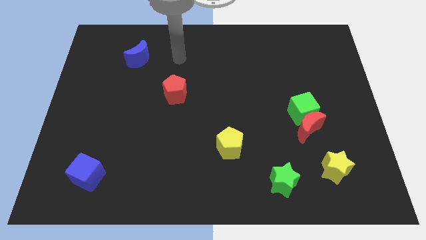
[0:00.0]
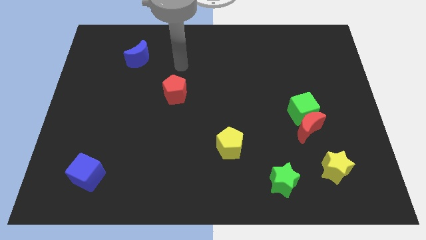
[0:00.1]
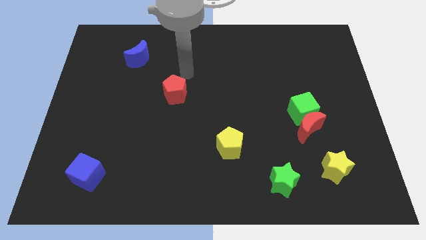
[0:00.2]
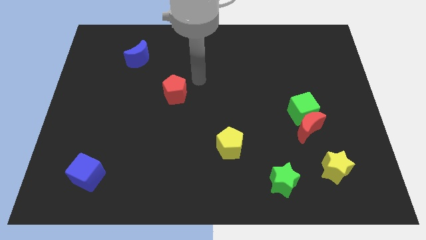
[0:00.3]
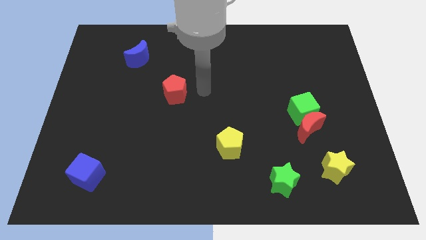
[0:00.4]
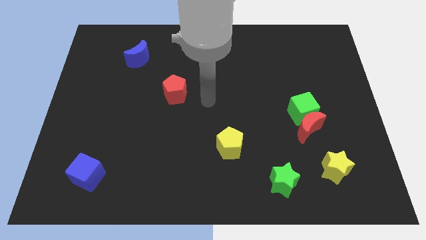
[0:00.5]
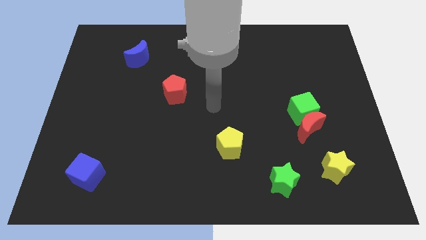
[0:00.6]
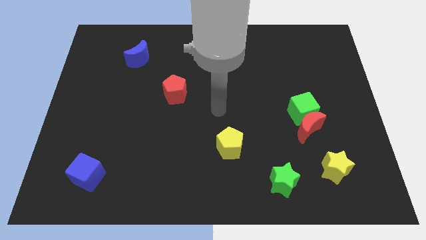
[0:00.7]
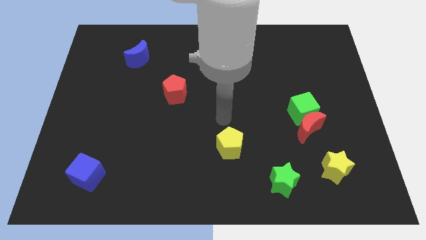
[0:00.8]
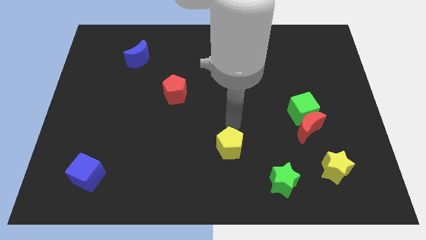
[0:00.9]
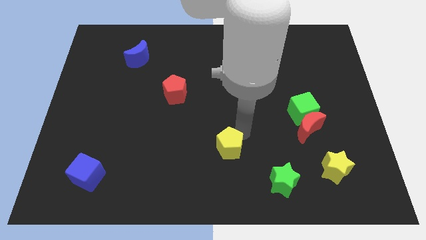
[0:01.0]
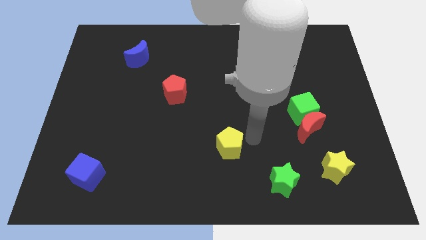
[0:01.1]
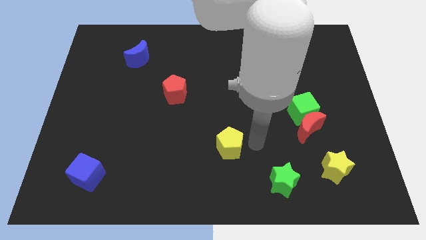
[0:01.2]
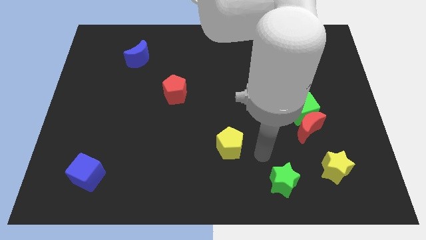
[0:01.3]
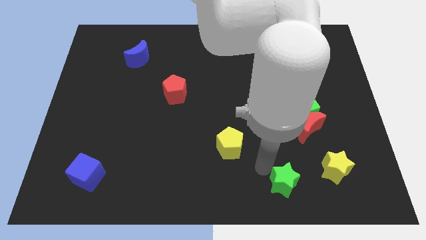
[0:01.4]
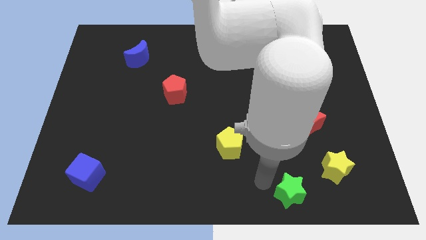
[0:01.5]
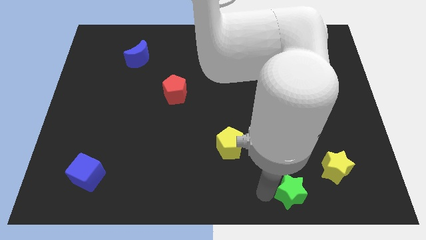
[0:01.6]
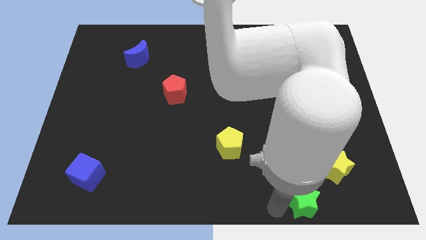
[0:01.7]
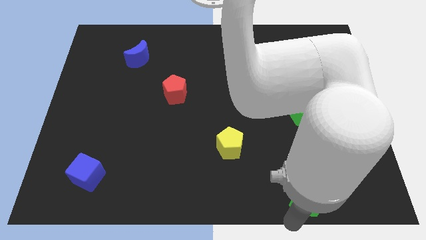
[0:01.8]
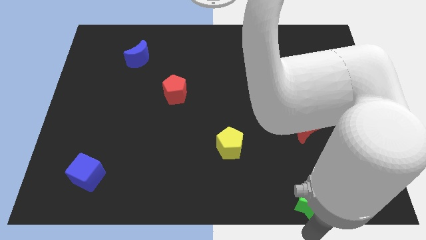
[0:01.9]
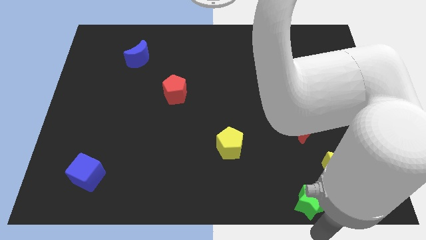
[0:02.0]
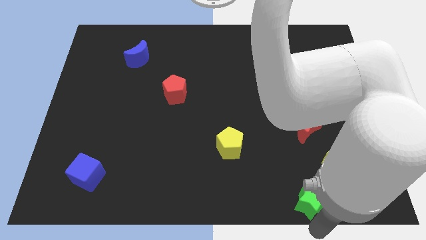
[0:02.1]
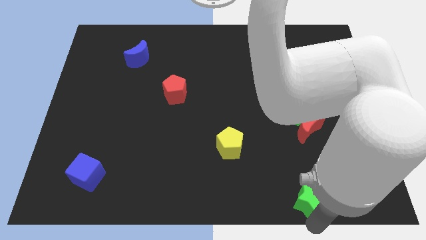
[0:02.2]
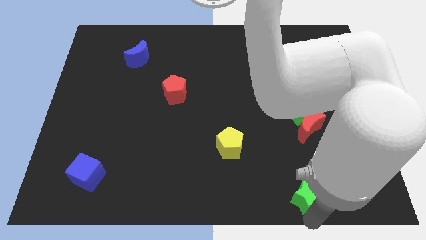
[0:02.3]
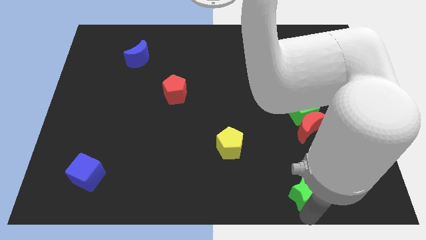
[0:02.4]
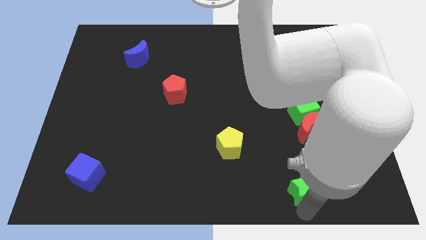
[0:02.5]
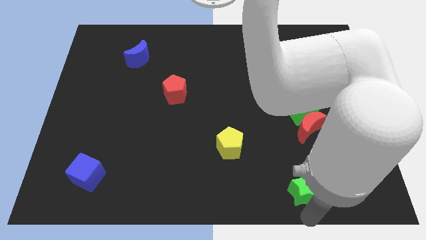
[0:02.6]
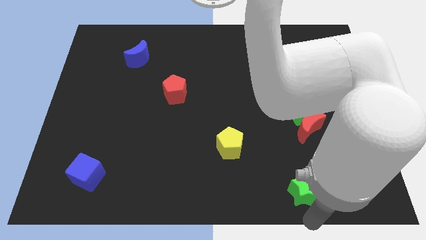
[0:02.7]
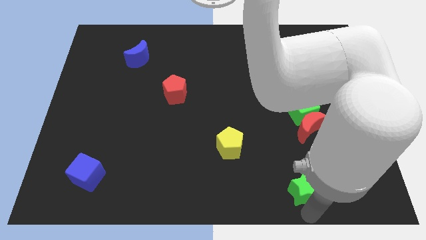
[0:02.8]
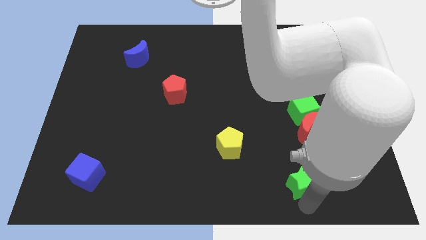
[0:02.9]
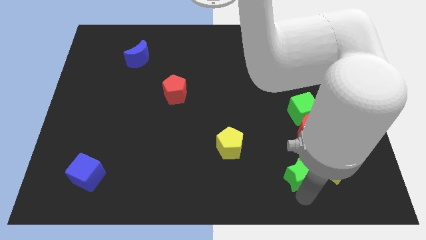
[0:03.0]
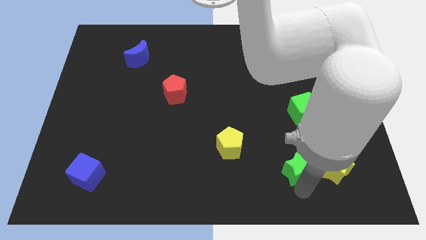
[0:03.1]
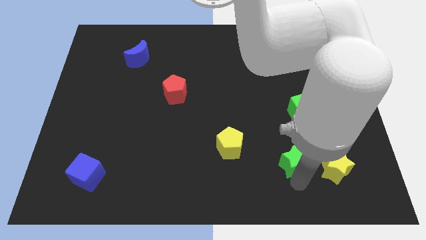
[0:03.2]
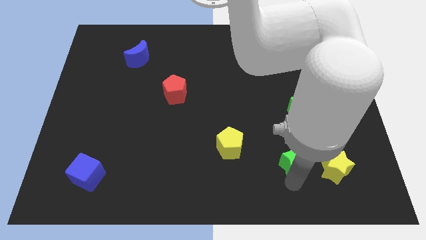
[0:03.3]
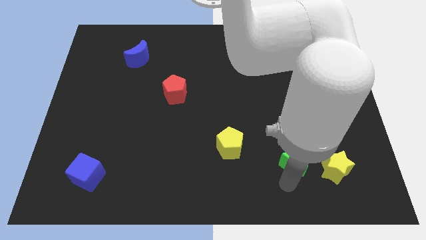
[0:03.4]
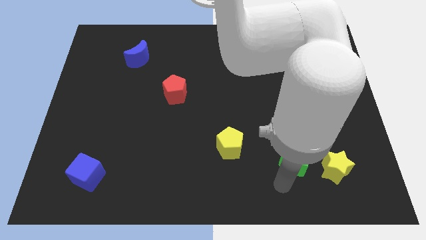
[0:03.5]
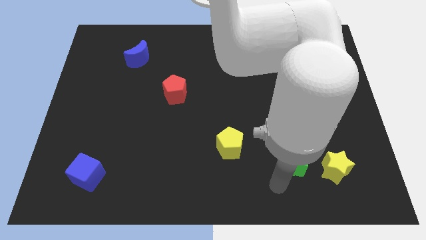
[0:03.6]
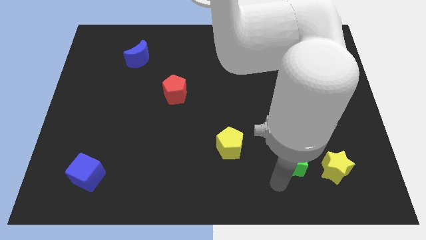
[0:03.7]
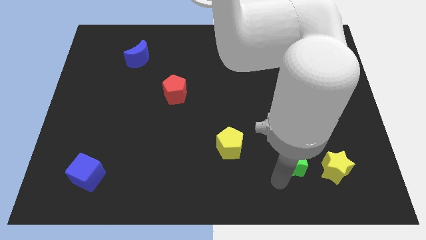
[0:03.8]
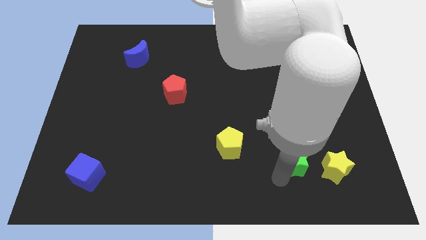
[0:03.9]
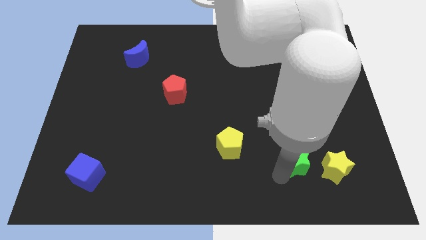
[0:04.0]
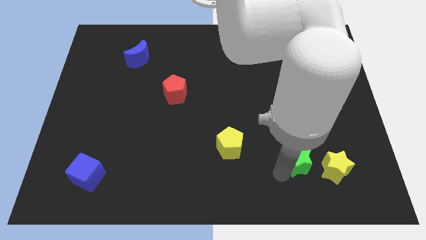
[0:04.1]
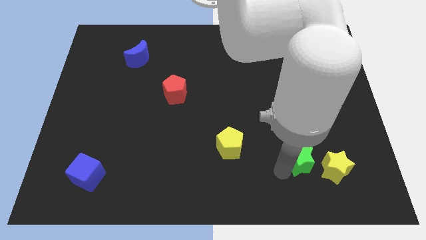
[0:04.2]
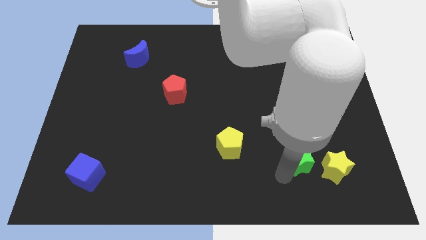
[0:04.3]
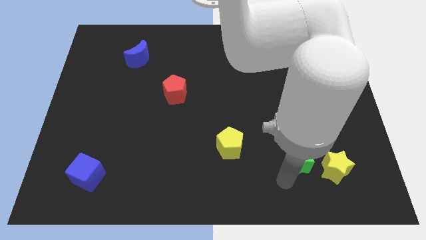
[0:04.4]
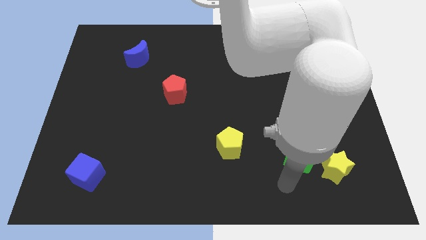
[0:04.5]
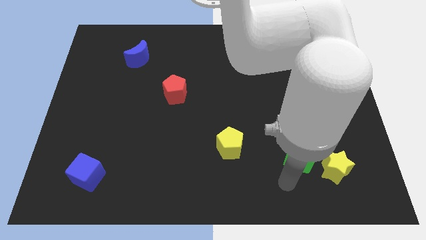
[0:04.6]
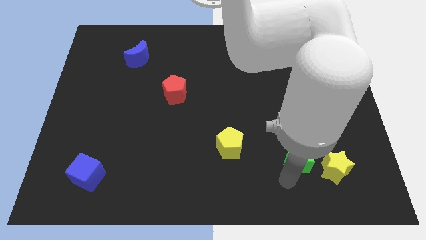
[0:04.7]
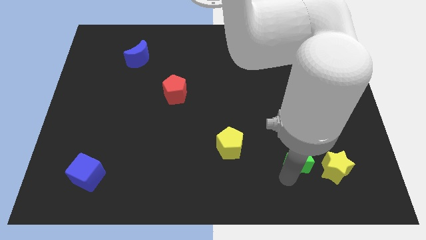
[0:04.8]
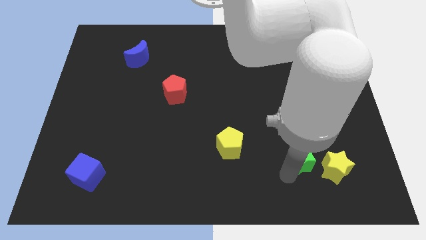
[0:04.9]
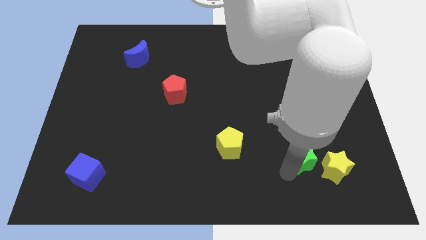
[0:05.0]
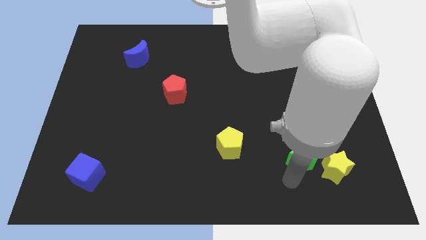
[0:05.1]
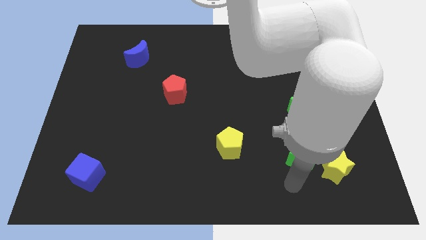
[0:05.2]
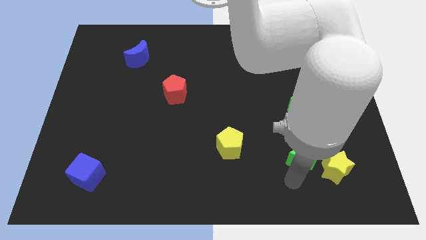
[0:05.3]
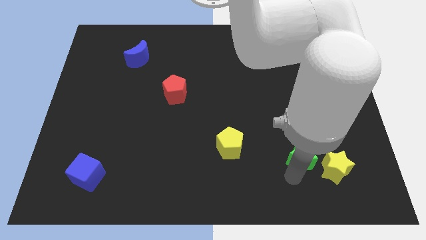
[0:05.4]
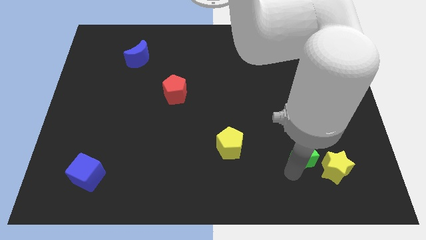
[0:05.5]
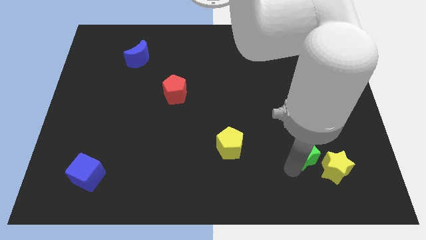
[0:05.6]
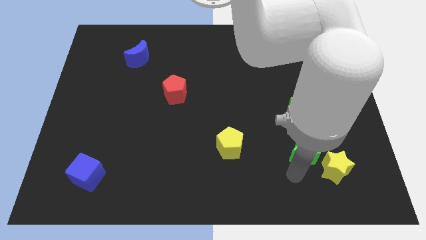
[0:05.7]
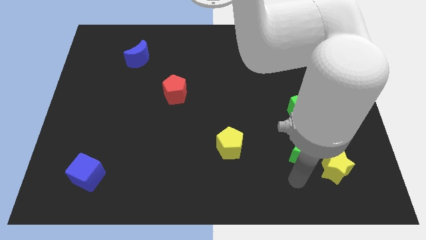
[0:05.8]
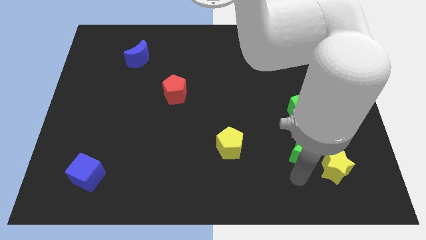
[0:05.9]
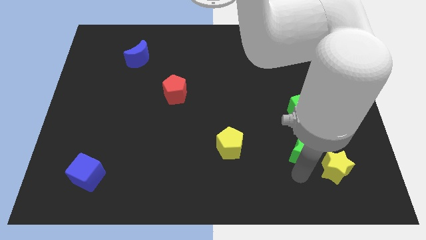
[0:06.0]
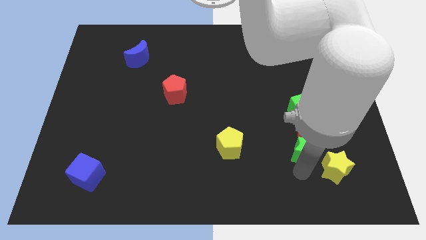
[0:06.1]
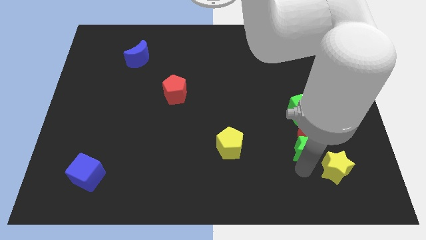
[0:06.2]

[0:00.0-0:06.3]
put the green star close to the red moon
